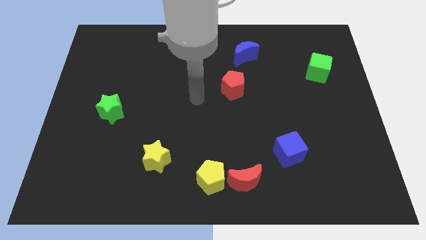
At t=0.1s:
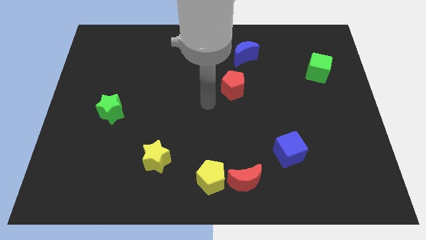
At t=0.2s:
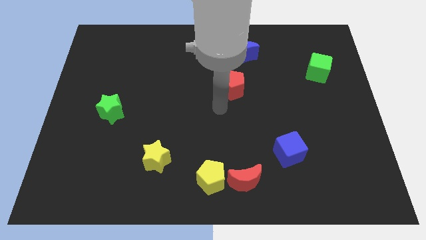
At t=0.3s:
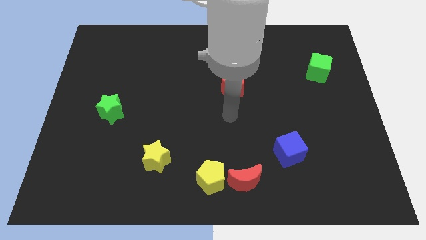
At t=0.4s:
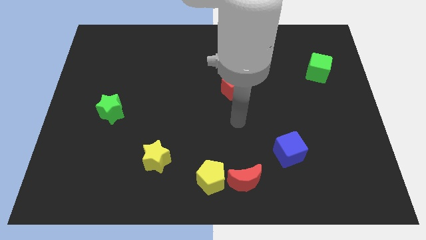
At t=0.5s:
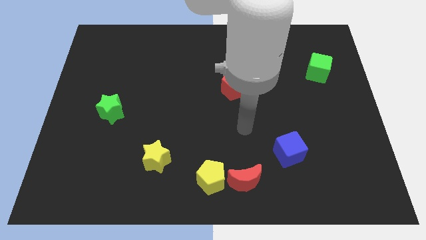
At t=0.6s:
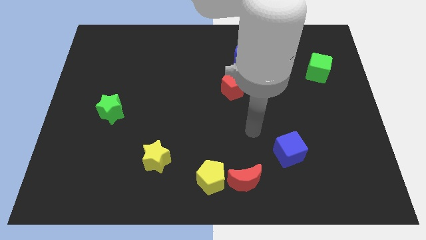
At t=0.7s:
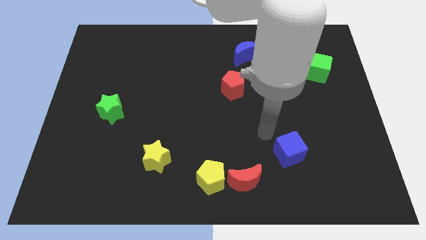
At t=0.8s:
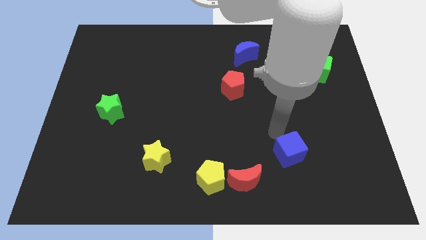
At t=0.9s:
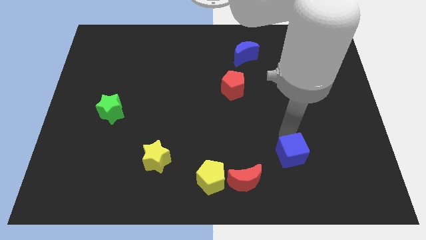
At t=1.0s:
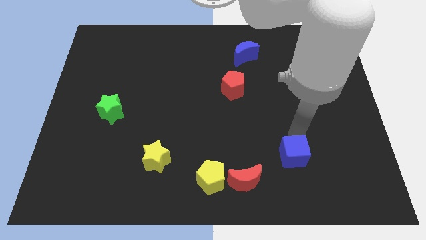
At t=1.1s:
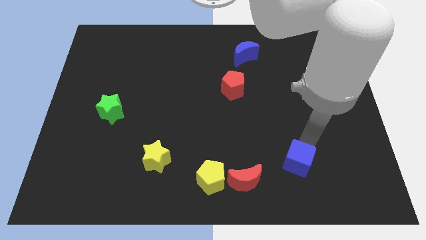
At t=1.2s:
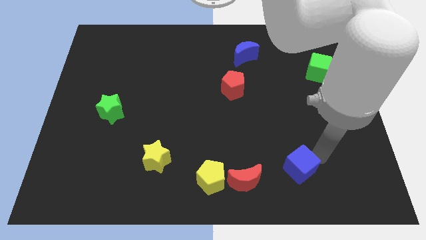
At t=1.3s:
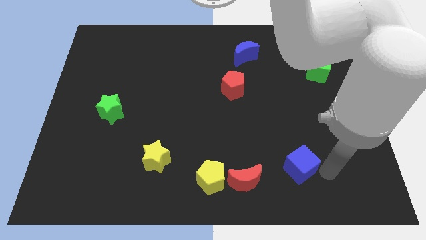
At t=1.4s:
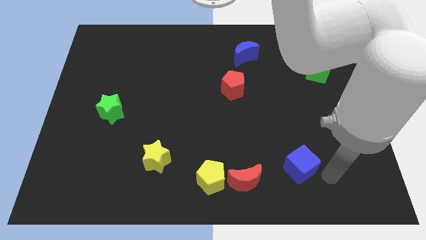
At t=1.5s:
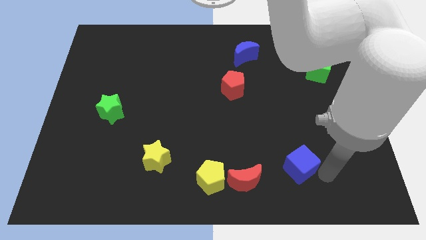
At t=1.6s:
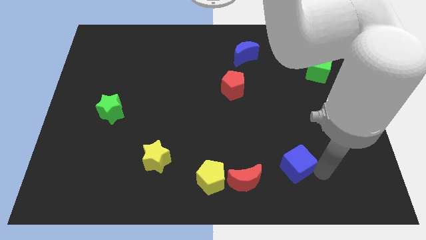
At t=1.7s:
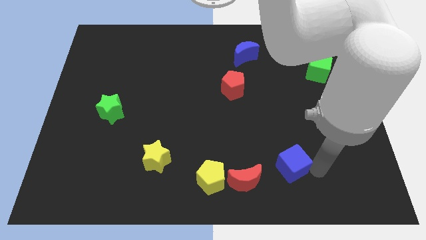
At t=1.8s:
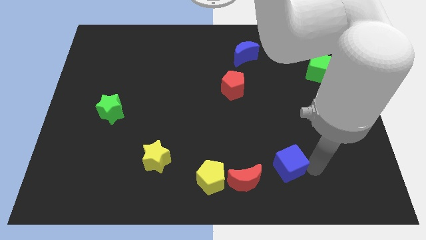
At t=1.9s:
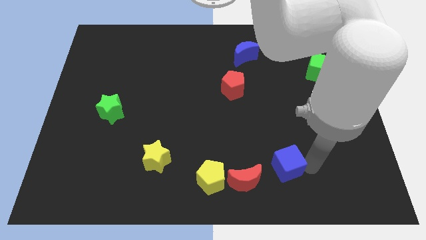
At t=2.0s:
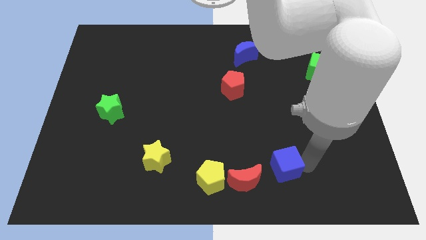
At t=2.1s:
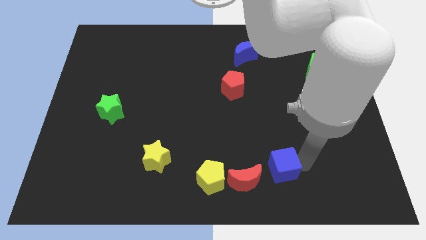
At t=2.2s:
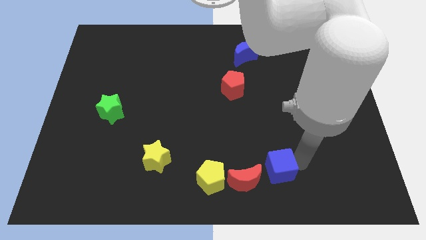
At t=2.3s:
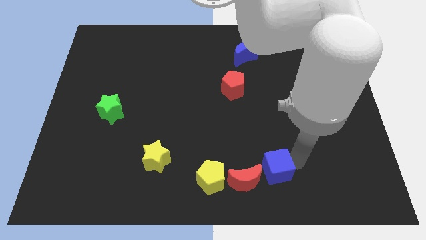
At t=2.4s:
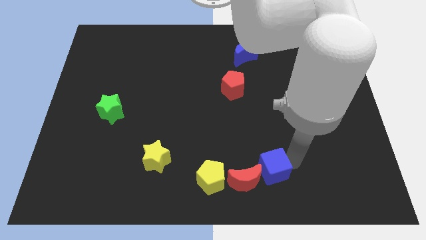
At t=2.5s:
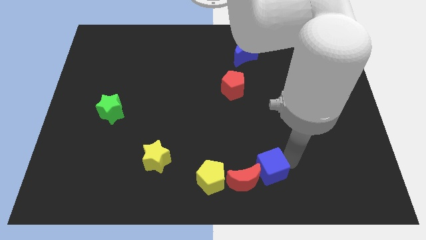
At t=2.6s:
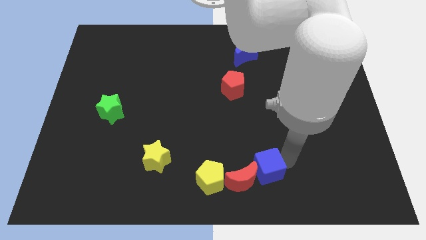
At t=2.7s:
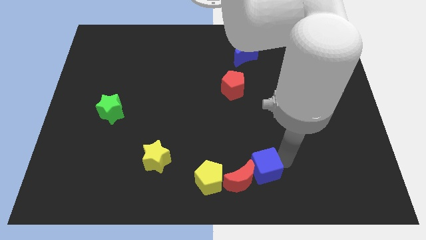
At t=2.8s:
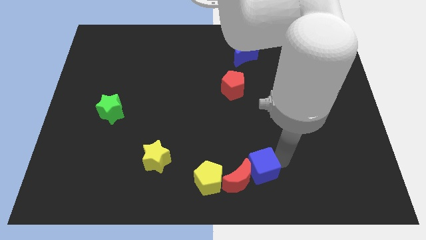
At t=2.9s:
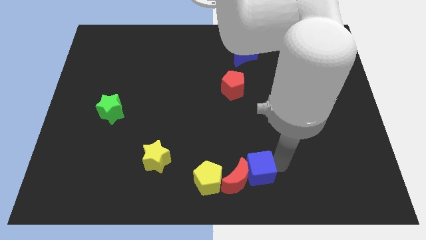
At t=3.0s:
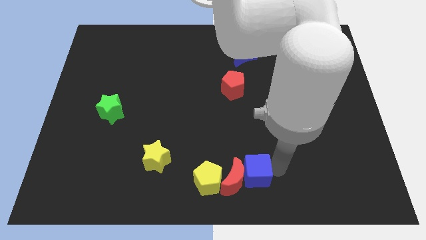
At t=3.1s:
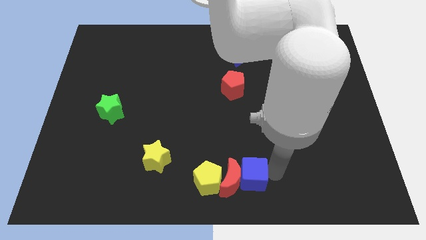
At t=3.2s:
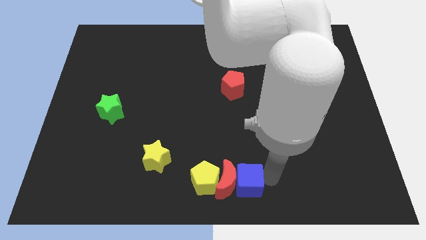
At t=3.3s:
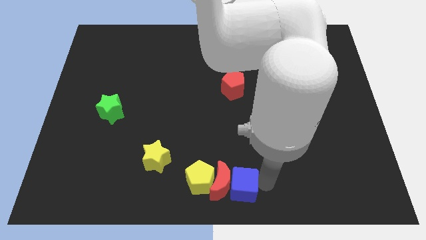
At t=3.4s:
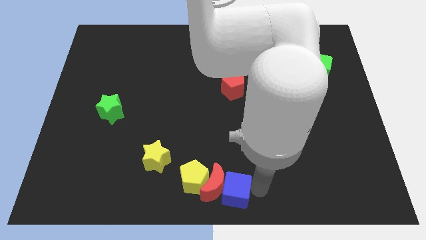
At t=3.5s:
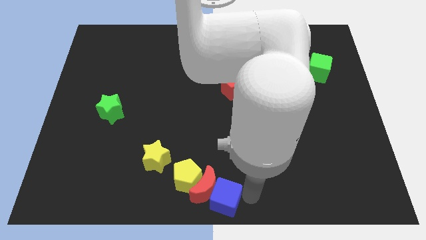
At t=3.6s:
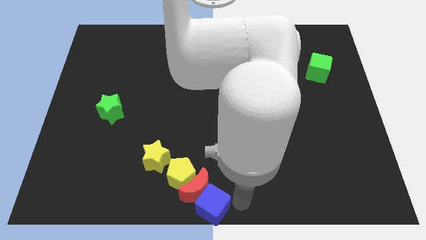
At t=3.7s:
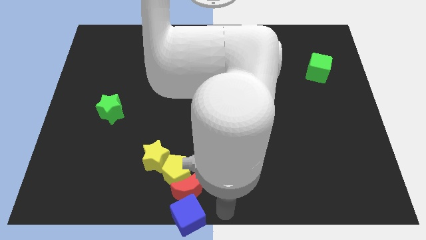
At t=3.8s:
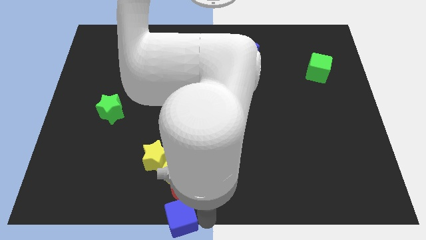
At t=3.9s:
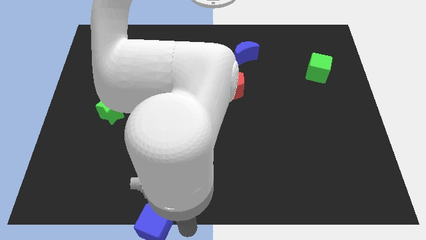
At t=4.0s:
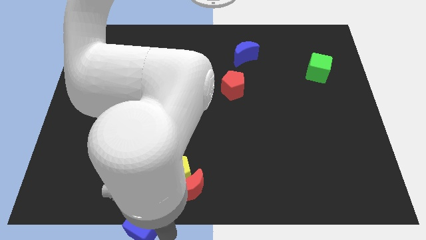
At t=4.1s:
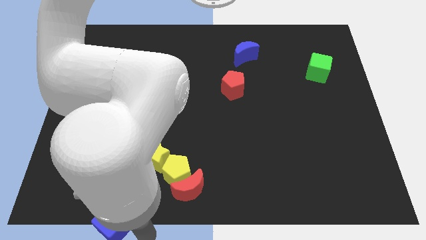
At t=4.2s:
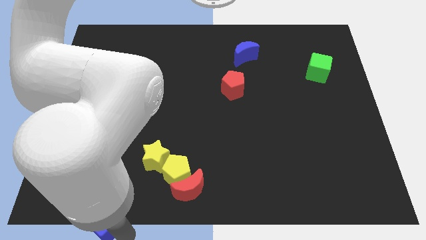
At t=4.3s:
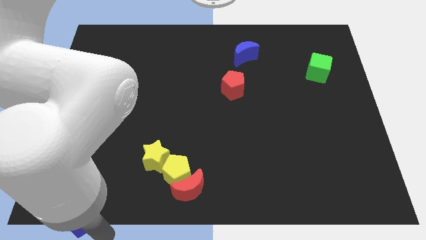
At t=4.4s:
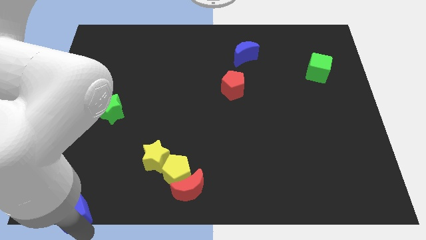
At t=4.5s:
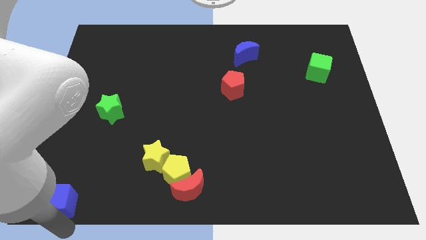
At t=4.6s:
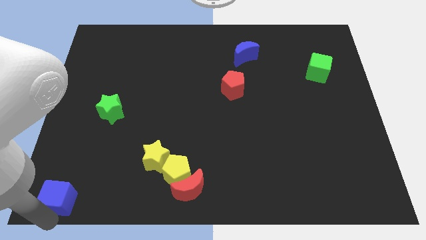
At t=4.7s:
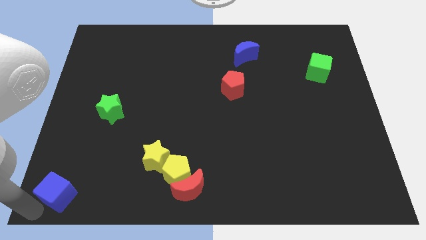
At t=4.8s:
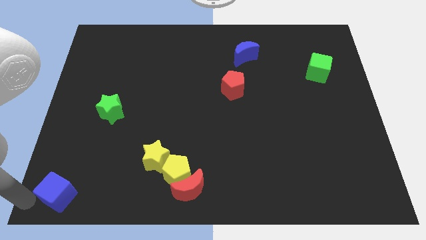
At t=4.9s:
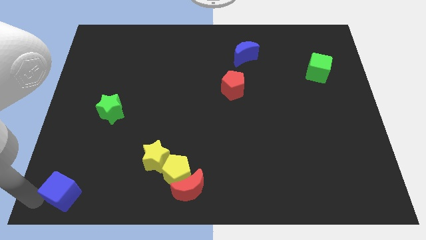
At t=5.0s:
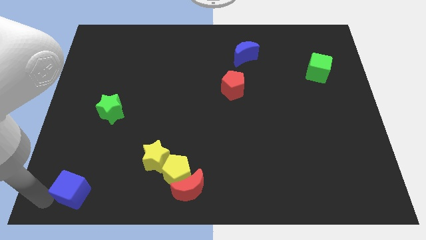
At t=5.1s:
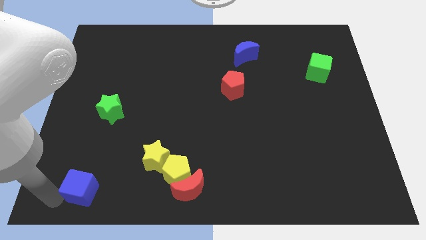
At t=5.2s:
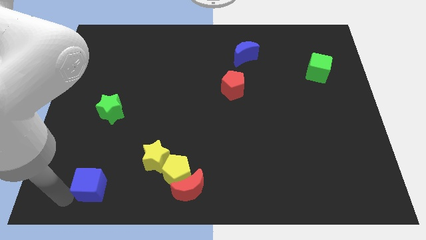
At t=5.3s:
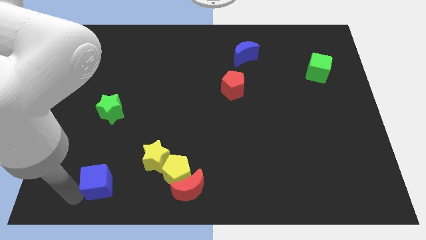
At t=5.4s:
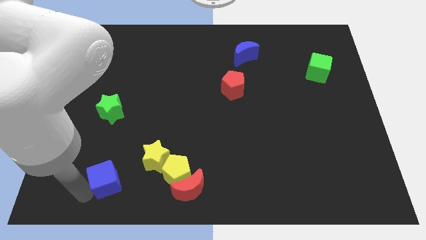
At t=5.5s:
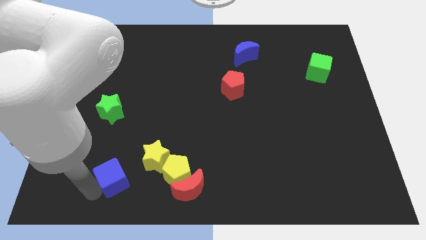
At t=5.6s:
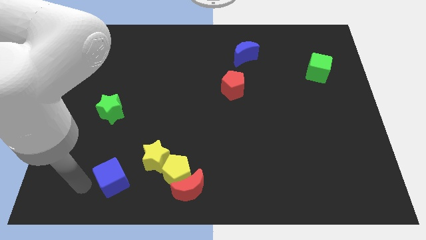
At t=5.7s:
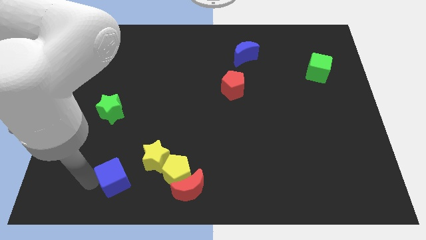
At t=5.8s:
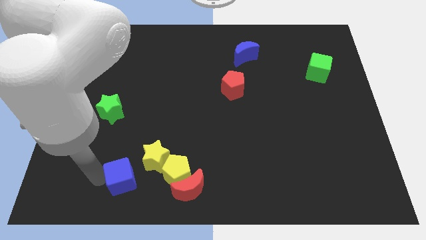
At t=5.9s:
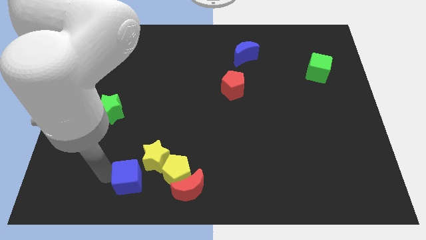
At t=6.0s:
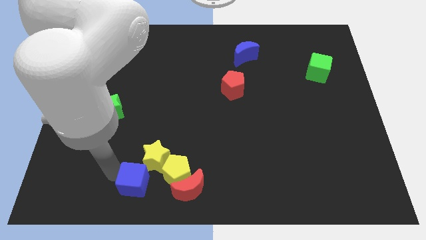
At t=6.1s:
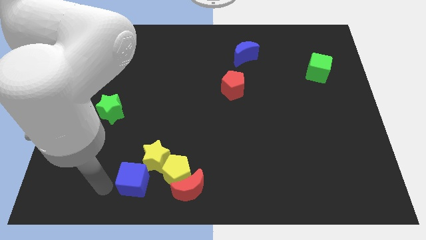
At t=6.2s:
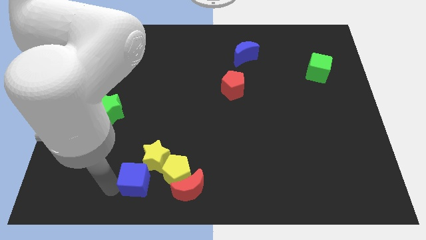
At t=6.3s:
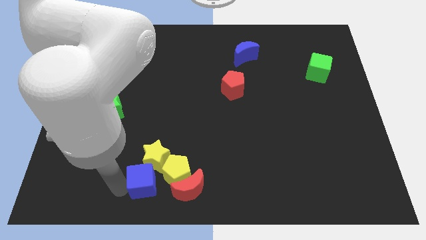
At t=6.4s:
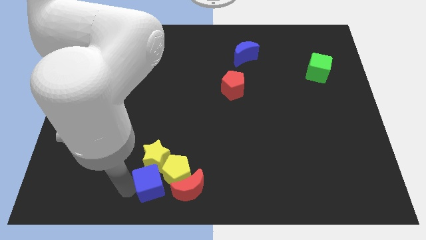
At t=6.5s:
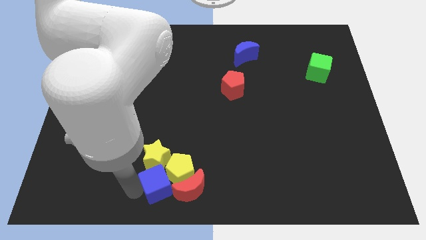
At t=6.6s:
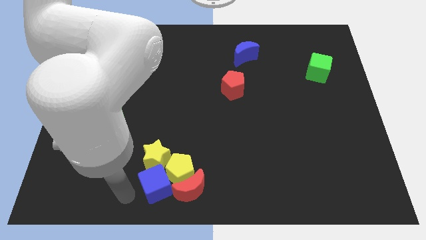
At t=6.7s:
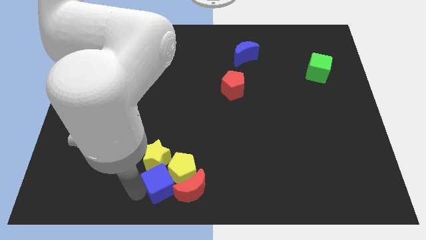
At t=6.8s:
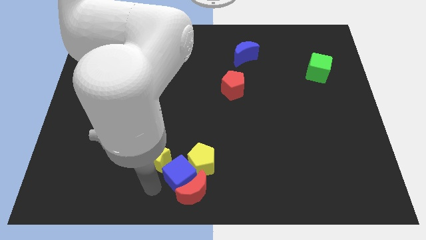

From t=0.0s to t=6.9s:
put the blue cube right of the yellow star
